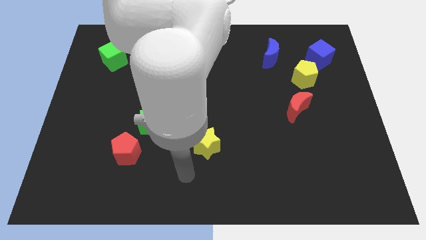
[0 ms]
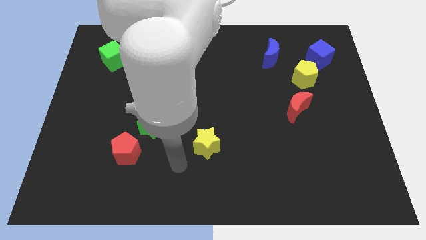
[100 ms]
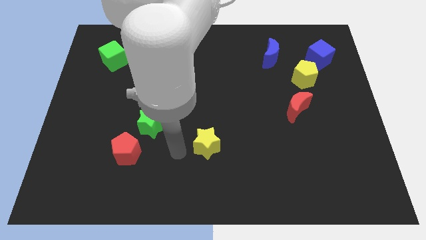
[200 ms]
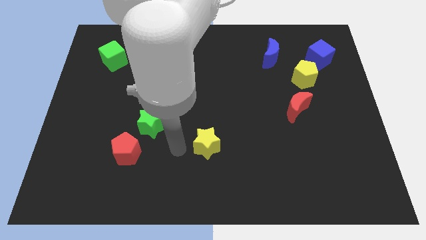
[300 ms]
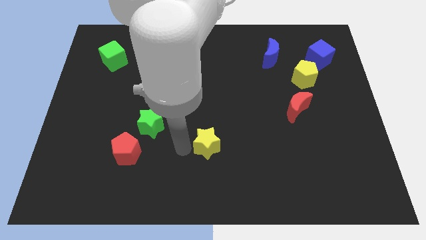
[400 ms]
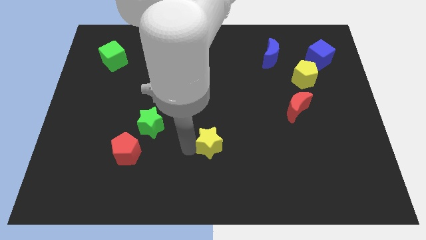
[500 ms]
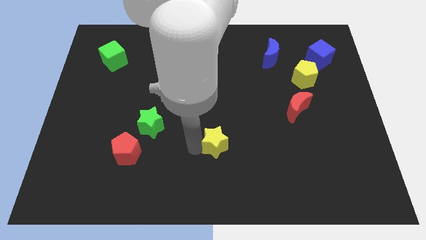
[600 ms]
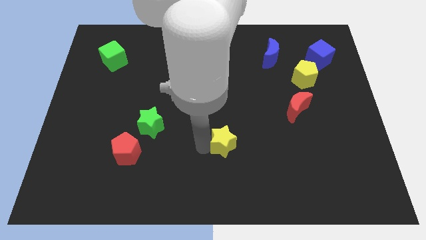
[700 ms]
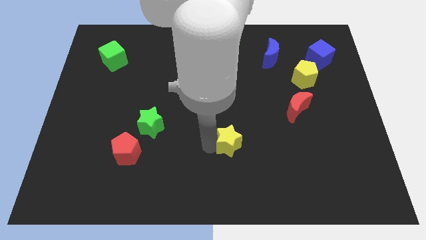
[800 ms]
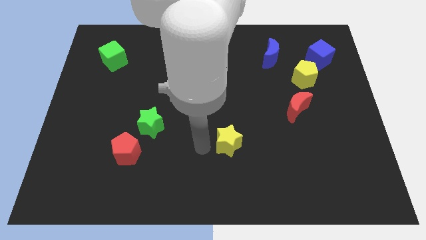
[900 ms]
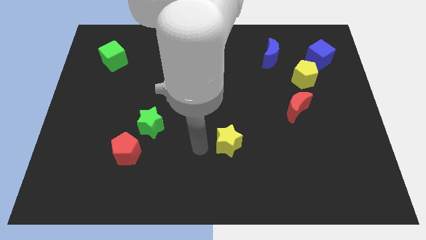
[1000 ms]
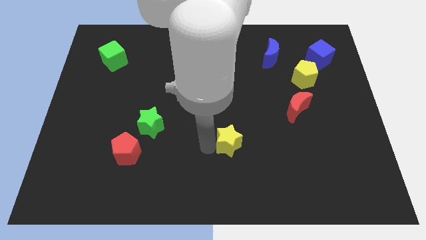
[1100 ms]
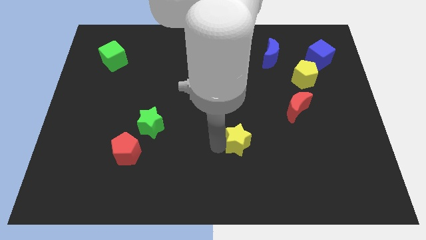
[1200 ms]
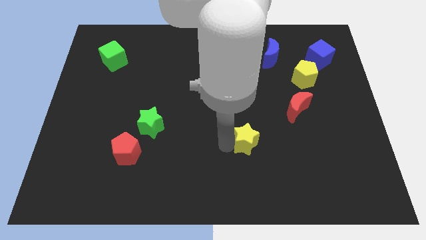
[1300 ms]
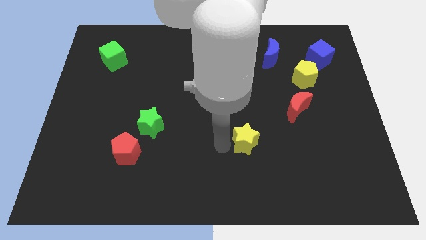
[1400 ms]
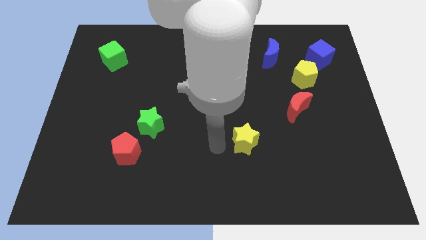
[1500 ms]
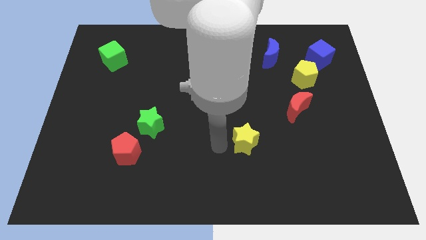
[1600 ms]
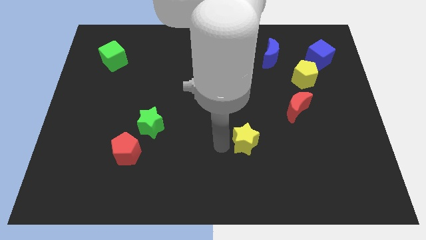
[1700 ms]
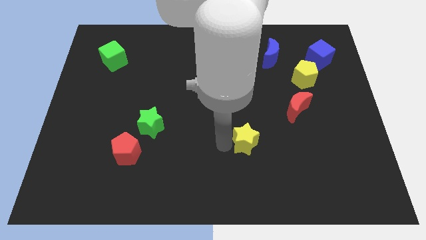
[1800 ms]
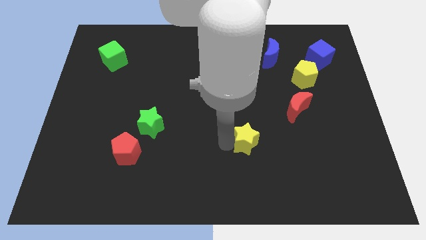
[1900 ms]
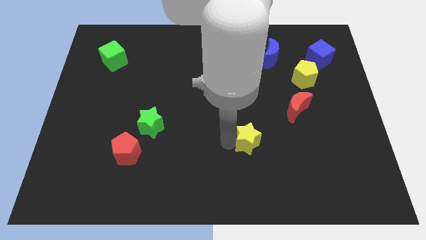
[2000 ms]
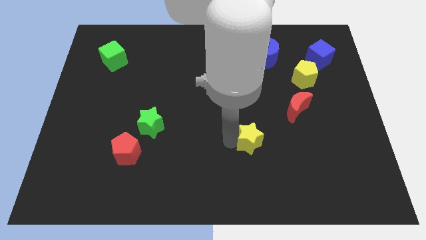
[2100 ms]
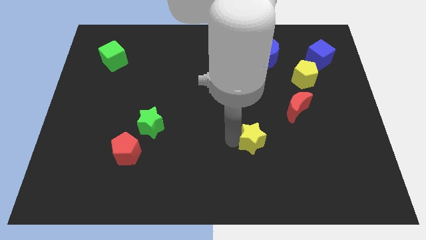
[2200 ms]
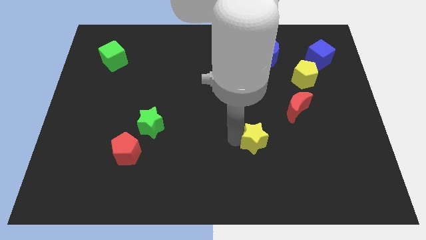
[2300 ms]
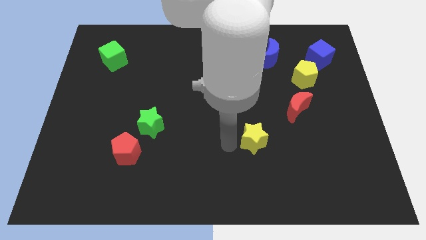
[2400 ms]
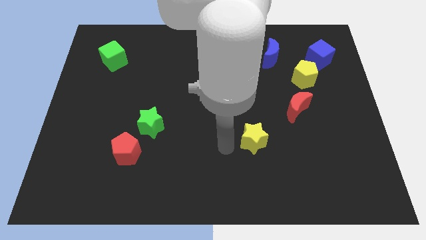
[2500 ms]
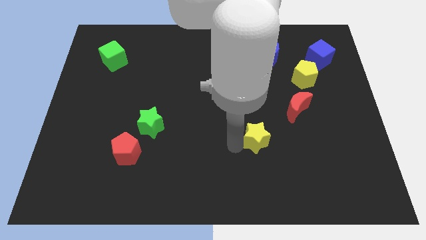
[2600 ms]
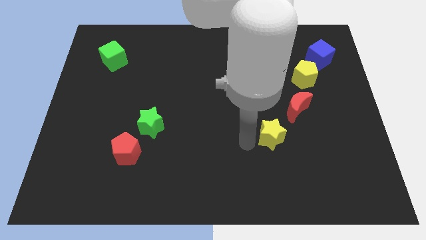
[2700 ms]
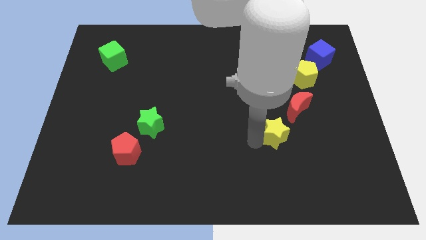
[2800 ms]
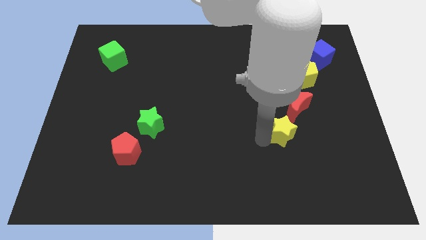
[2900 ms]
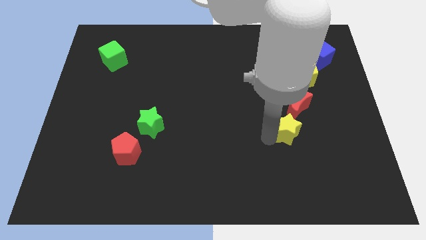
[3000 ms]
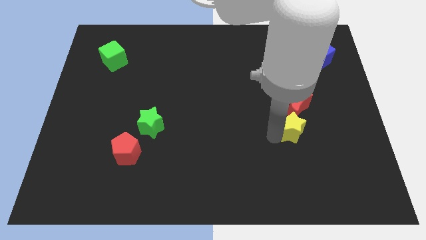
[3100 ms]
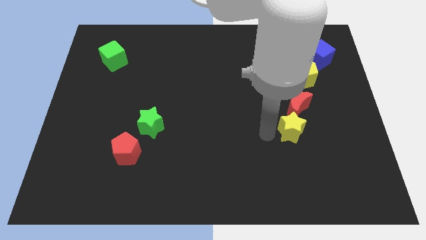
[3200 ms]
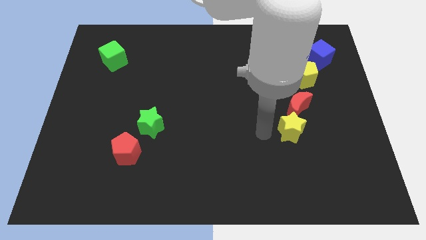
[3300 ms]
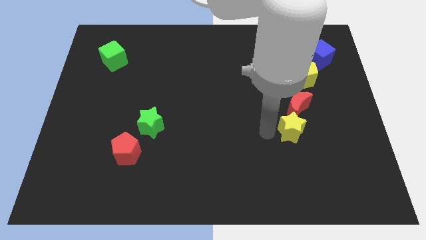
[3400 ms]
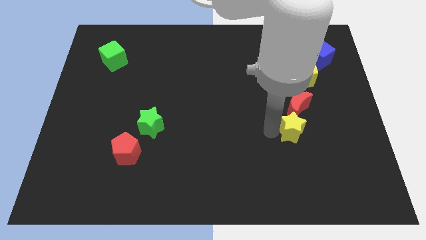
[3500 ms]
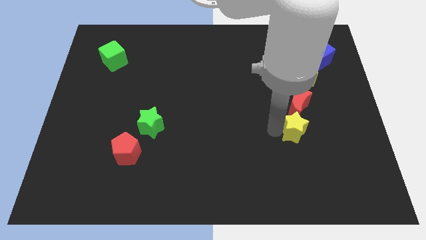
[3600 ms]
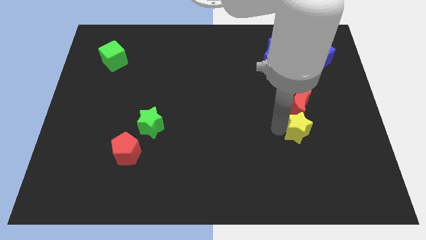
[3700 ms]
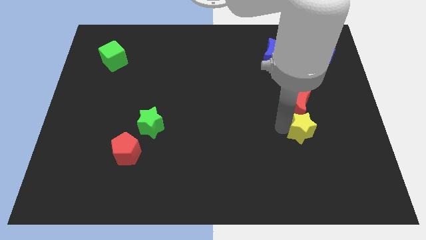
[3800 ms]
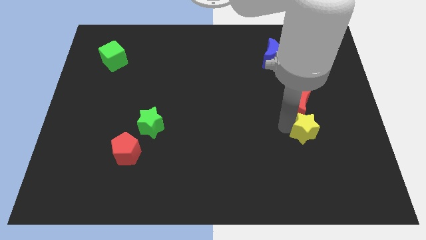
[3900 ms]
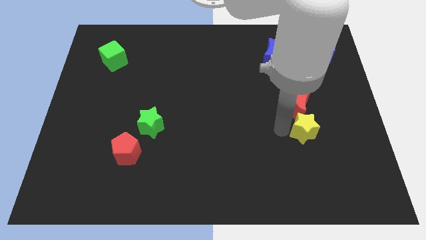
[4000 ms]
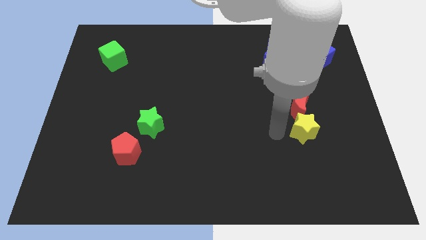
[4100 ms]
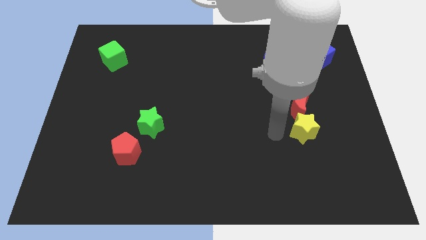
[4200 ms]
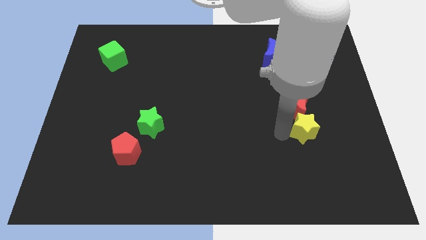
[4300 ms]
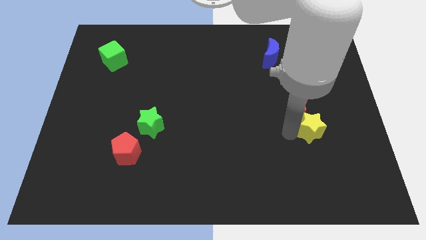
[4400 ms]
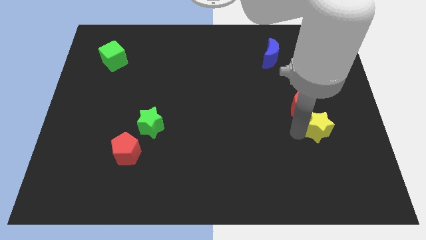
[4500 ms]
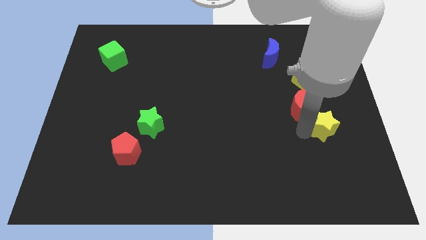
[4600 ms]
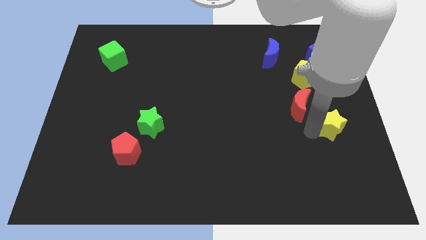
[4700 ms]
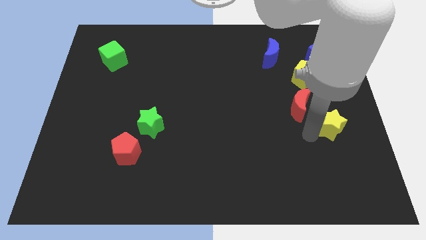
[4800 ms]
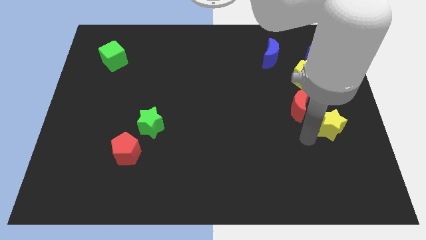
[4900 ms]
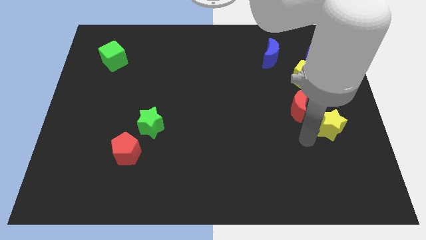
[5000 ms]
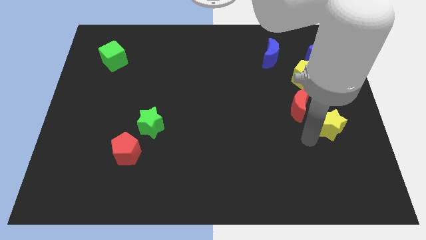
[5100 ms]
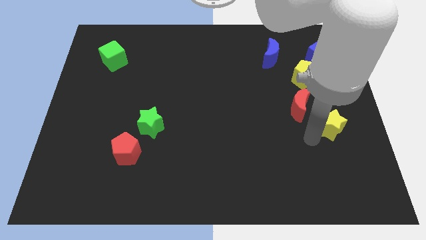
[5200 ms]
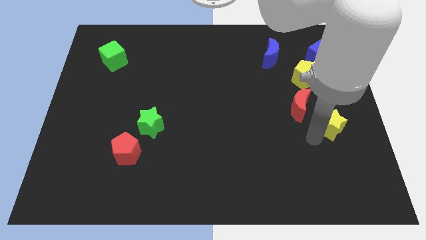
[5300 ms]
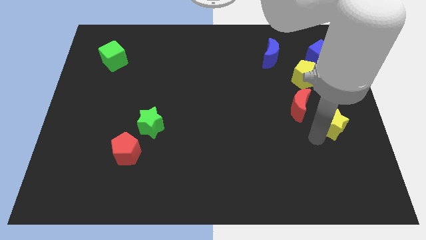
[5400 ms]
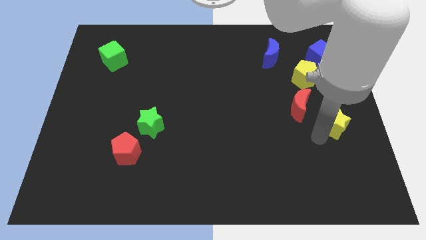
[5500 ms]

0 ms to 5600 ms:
move the yellow star to the right side of the board
